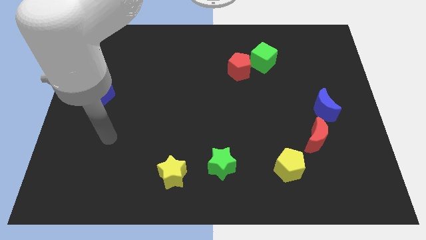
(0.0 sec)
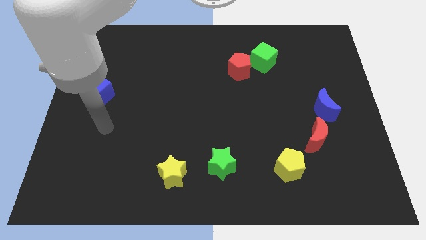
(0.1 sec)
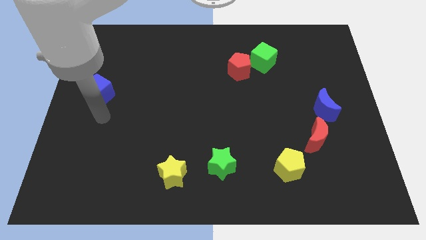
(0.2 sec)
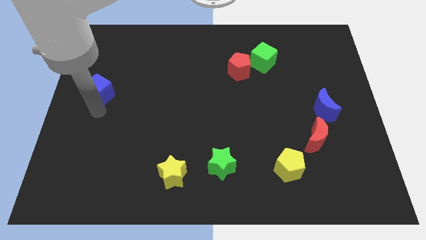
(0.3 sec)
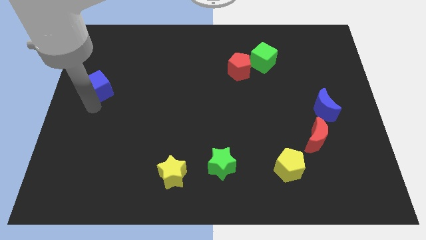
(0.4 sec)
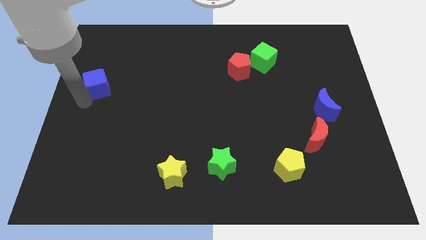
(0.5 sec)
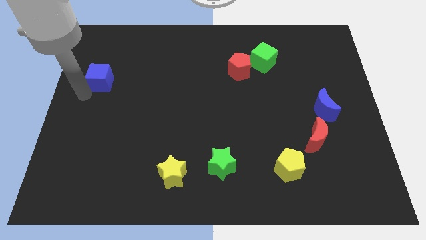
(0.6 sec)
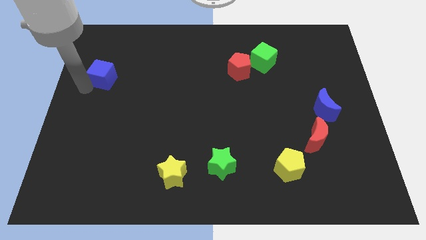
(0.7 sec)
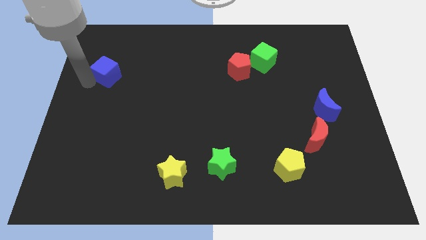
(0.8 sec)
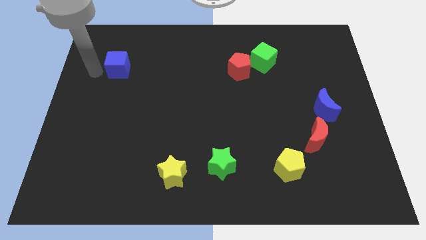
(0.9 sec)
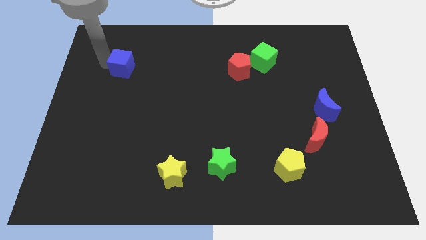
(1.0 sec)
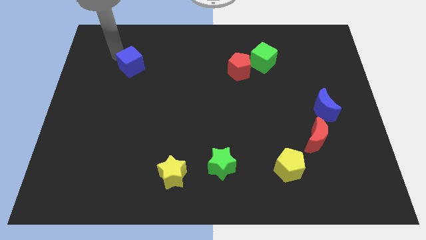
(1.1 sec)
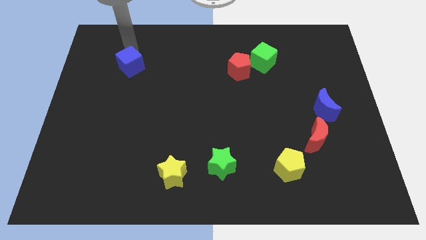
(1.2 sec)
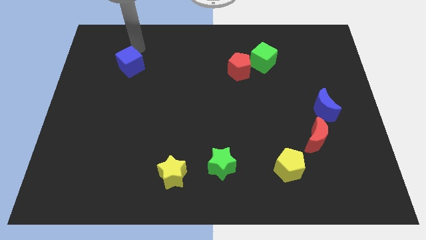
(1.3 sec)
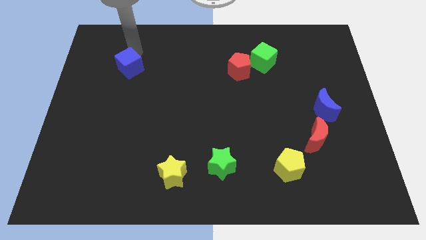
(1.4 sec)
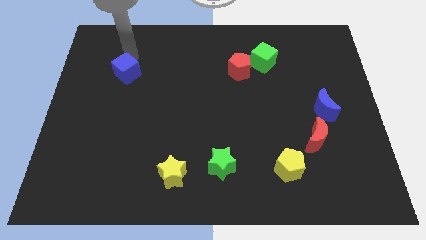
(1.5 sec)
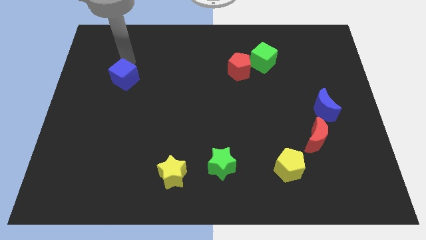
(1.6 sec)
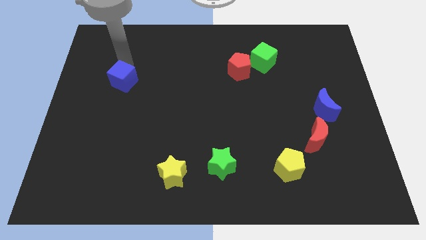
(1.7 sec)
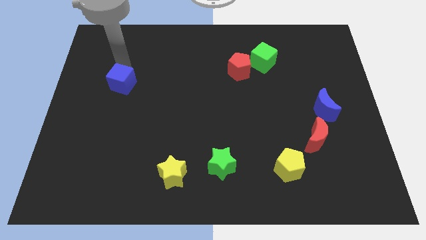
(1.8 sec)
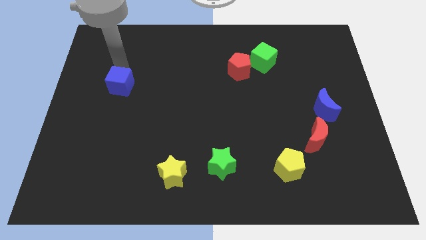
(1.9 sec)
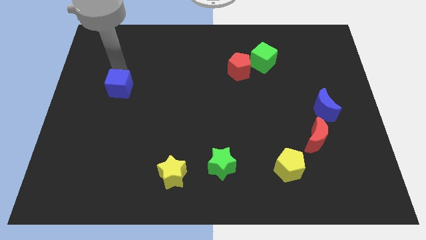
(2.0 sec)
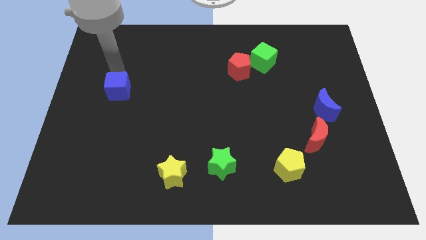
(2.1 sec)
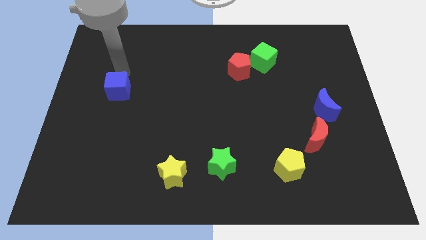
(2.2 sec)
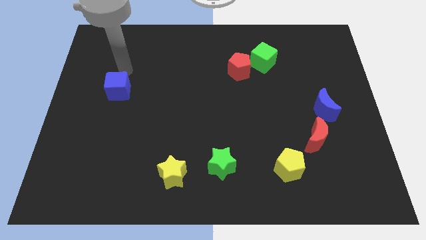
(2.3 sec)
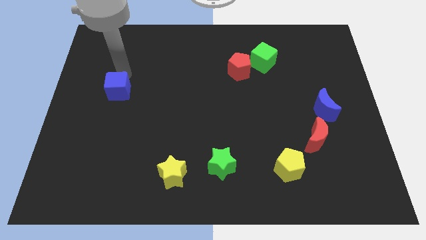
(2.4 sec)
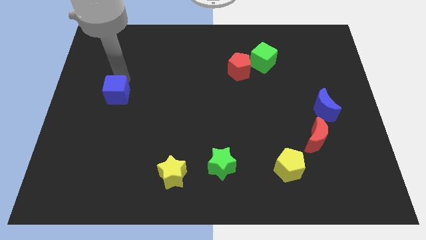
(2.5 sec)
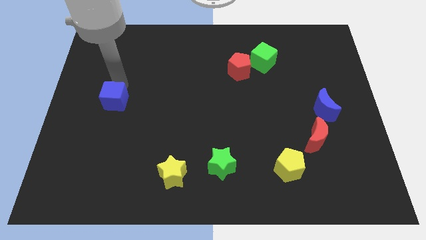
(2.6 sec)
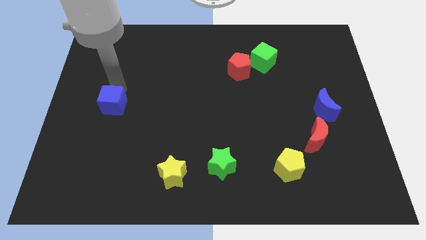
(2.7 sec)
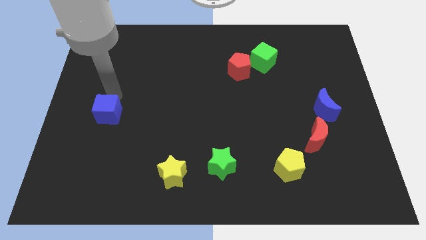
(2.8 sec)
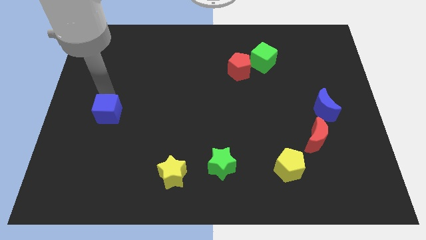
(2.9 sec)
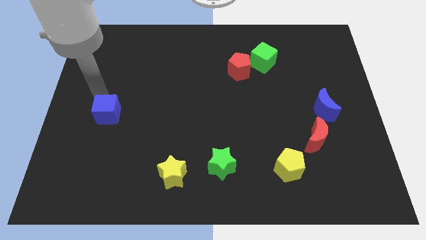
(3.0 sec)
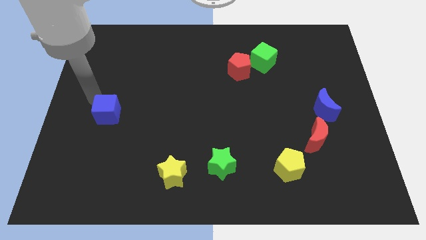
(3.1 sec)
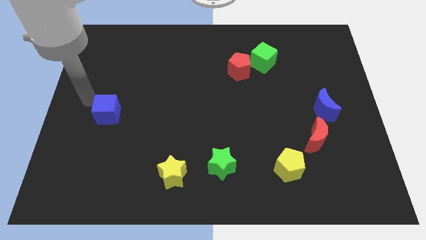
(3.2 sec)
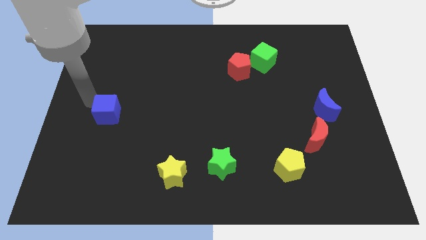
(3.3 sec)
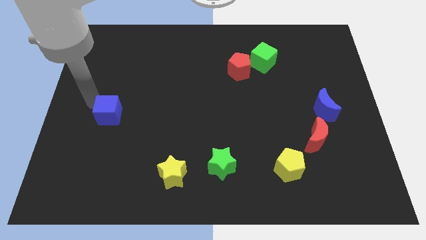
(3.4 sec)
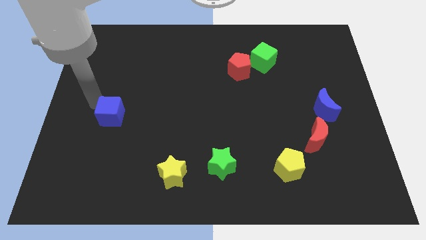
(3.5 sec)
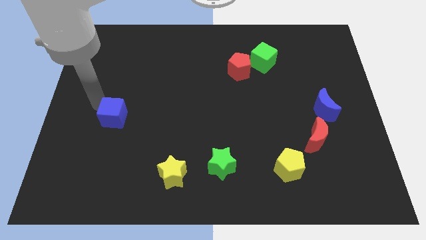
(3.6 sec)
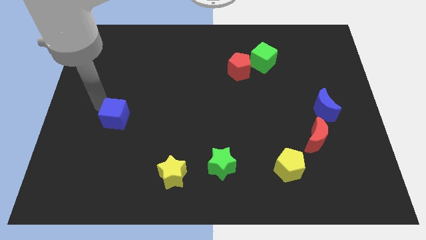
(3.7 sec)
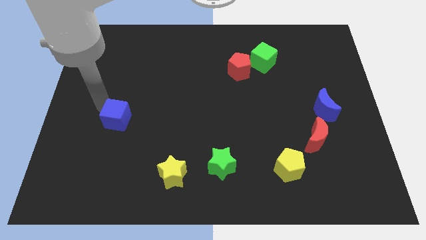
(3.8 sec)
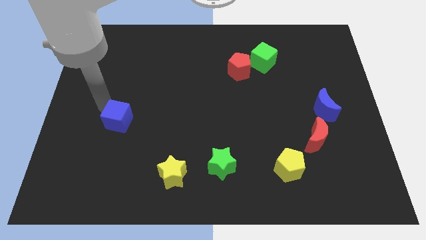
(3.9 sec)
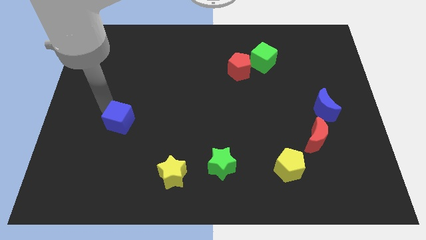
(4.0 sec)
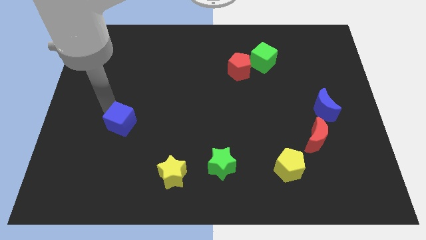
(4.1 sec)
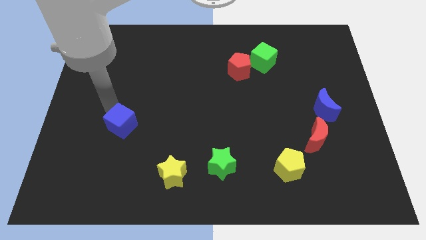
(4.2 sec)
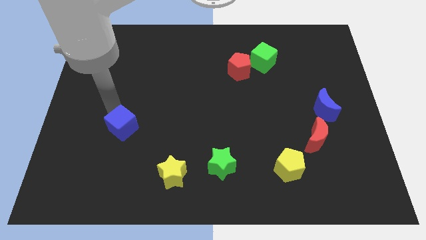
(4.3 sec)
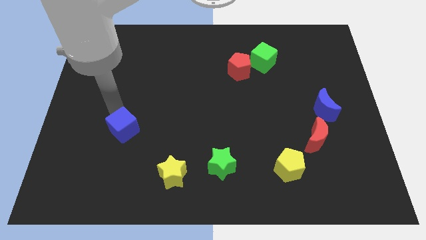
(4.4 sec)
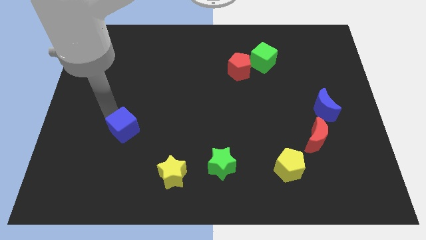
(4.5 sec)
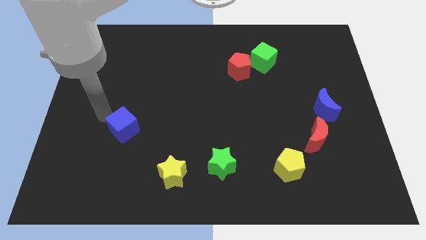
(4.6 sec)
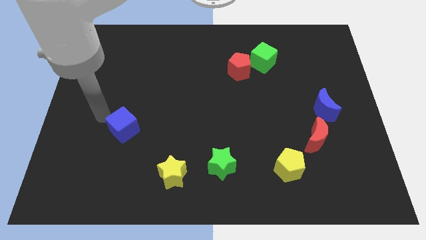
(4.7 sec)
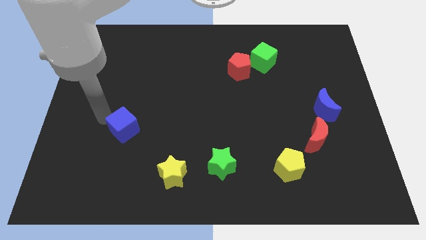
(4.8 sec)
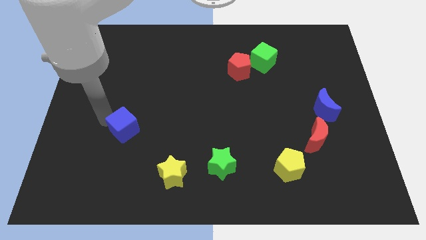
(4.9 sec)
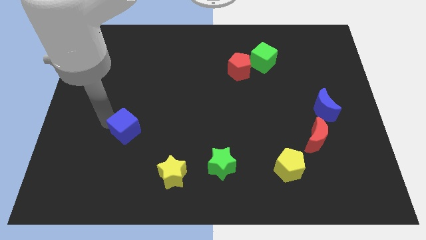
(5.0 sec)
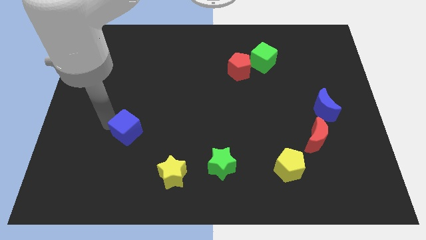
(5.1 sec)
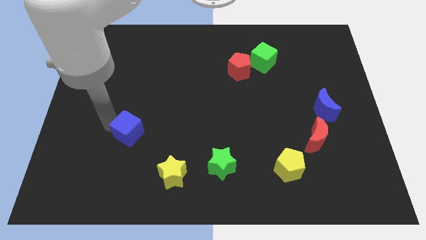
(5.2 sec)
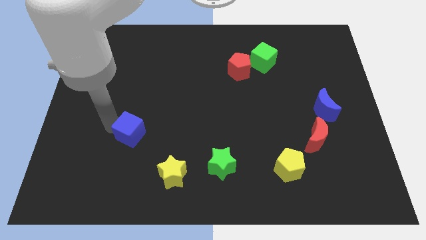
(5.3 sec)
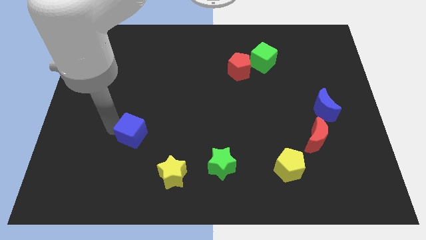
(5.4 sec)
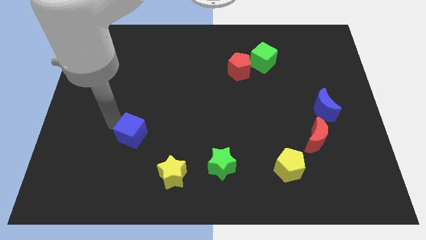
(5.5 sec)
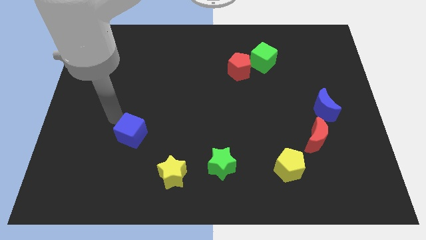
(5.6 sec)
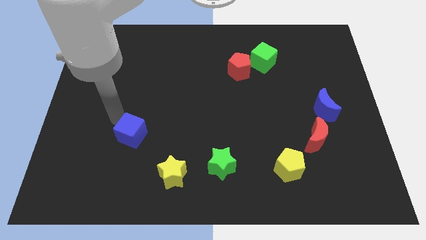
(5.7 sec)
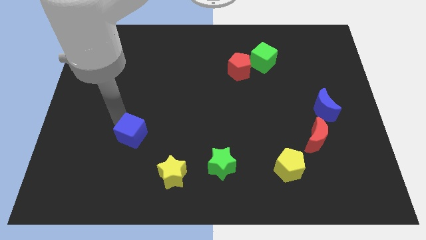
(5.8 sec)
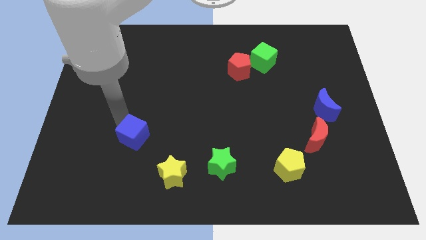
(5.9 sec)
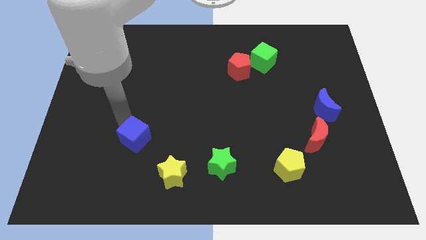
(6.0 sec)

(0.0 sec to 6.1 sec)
push the blue cube diagonally up and to the left of the yellow star
